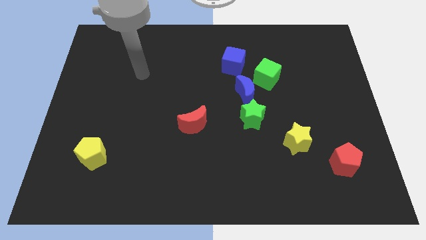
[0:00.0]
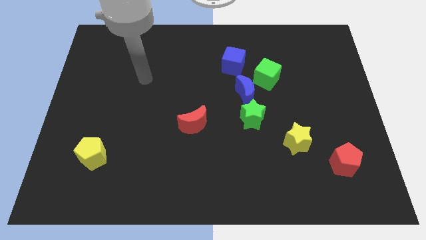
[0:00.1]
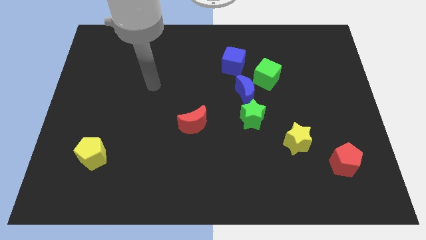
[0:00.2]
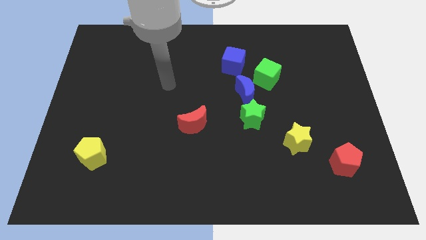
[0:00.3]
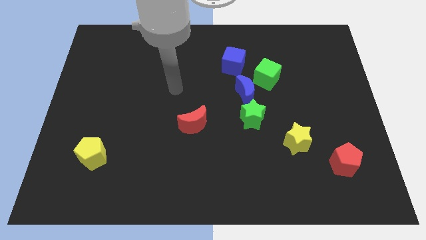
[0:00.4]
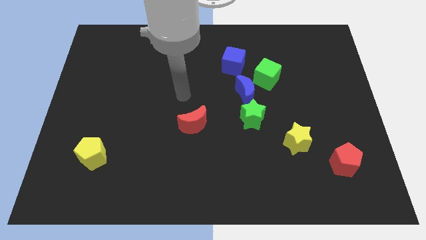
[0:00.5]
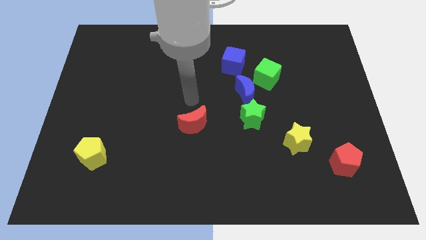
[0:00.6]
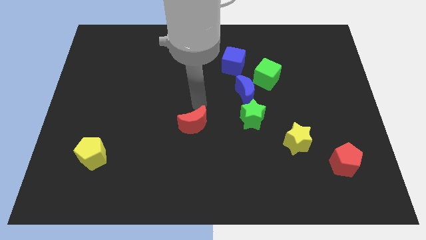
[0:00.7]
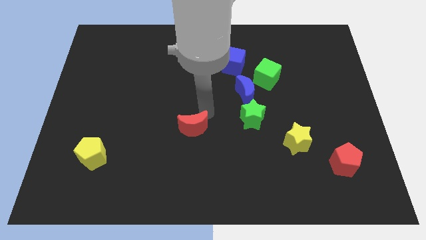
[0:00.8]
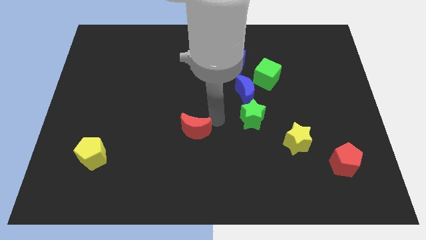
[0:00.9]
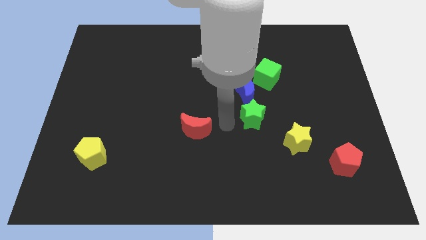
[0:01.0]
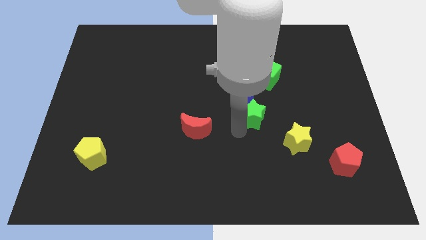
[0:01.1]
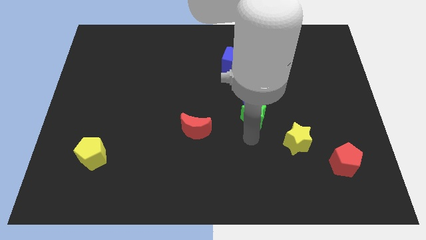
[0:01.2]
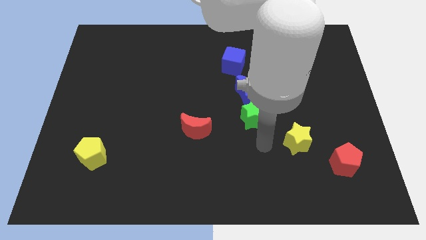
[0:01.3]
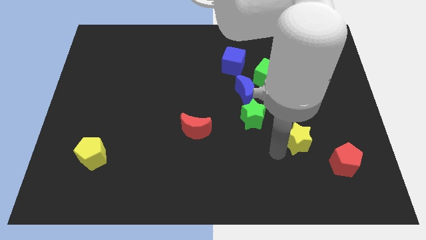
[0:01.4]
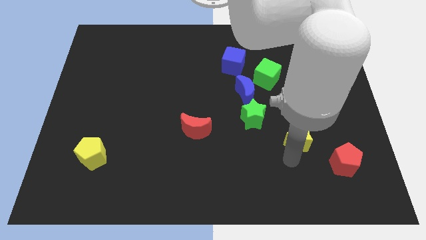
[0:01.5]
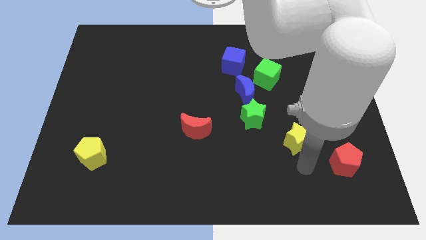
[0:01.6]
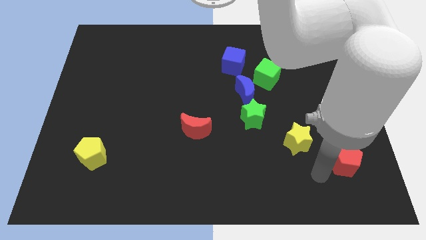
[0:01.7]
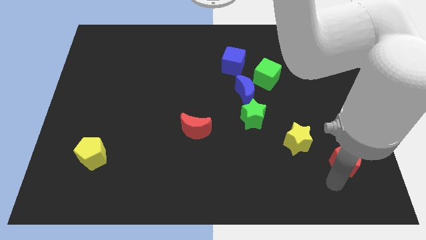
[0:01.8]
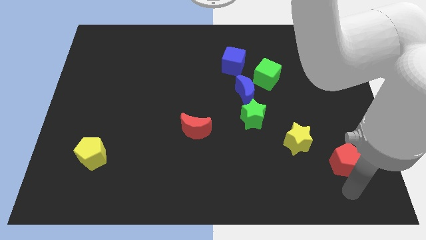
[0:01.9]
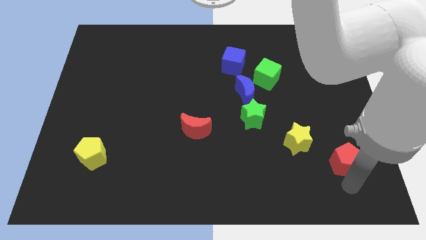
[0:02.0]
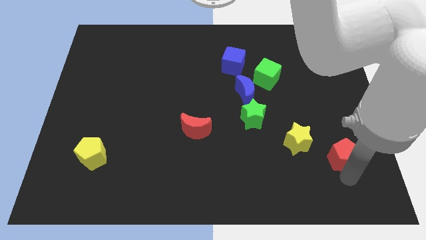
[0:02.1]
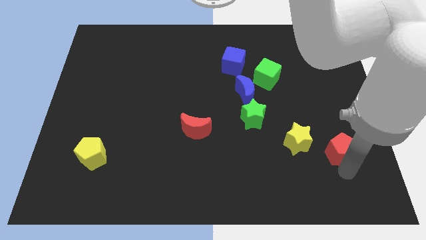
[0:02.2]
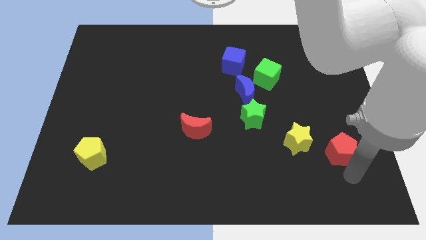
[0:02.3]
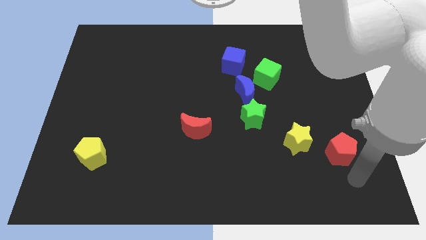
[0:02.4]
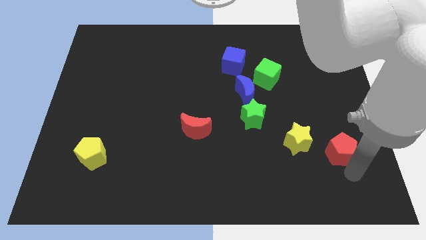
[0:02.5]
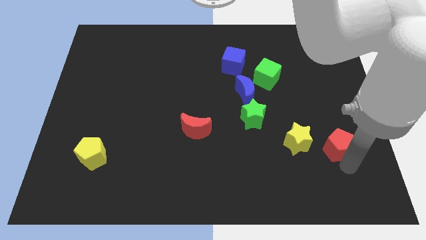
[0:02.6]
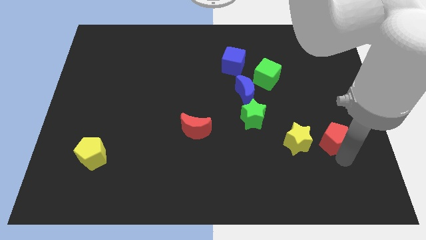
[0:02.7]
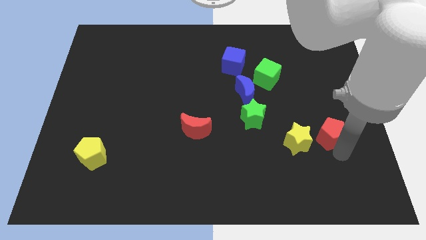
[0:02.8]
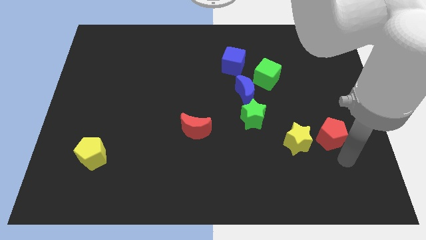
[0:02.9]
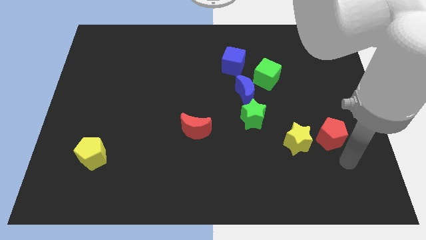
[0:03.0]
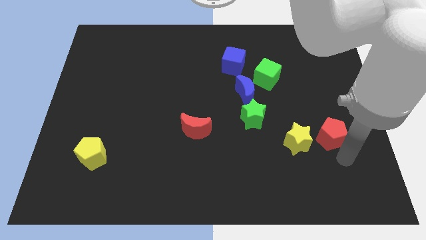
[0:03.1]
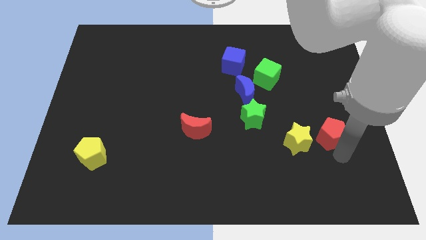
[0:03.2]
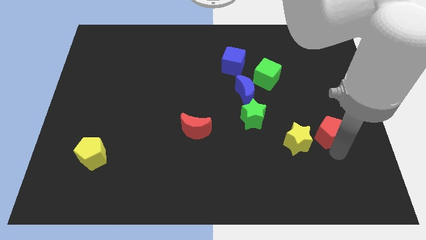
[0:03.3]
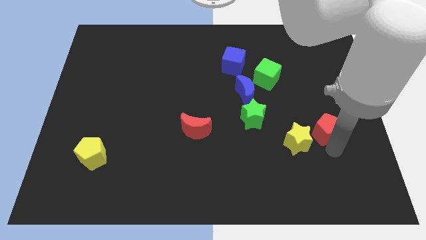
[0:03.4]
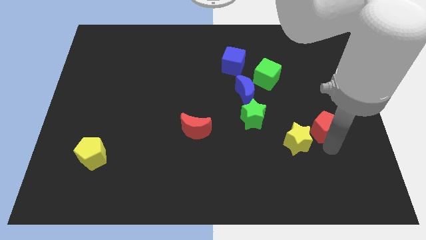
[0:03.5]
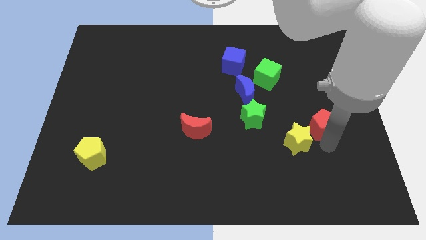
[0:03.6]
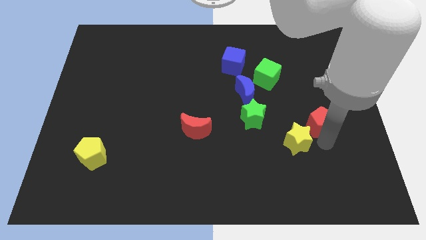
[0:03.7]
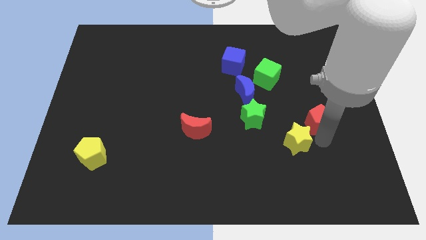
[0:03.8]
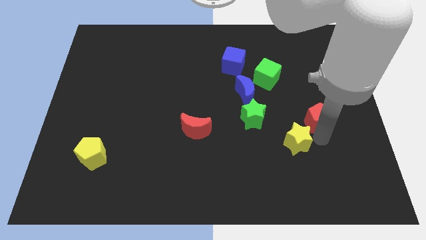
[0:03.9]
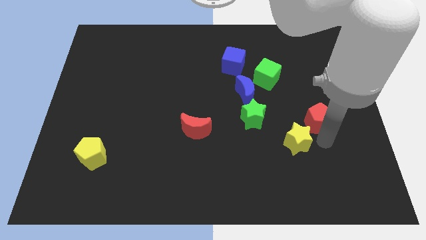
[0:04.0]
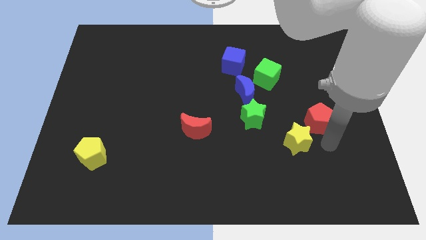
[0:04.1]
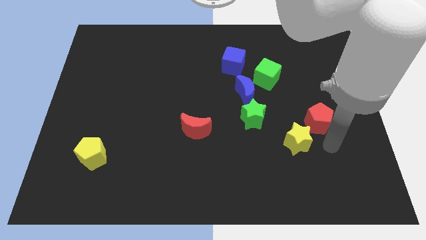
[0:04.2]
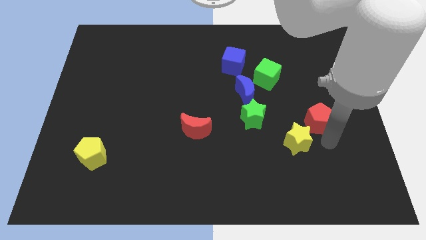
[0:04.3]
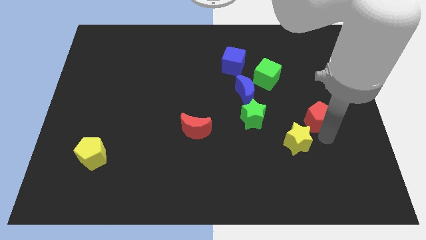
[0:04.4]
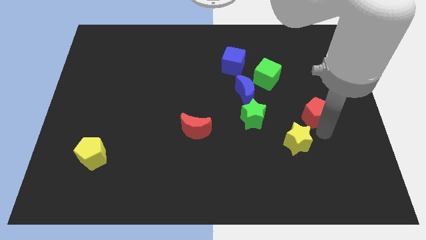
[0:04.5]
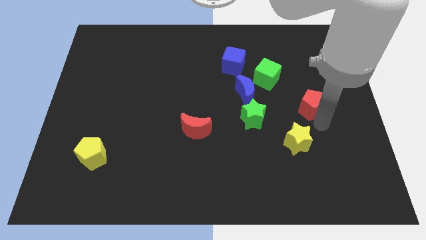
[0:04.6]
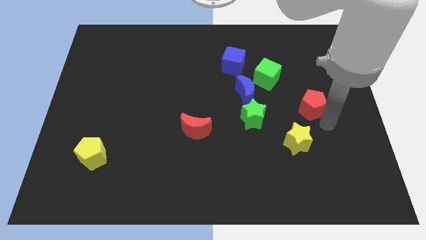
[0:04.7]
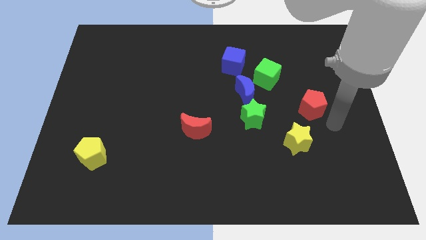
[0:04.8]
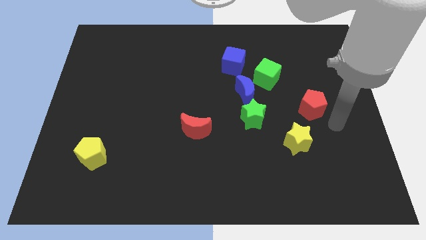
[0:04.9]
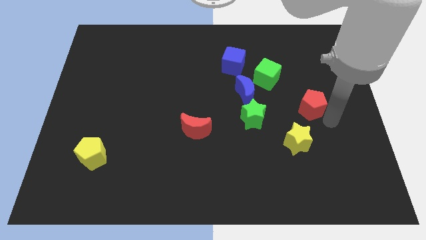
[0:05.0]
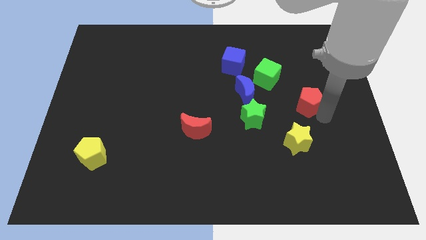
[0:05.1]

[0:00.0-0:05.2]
put the red pentagon right of the blue moon

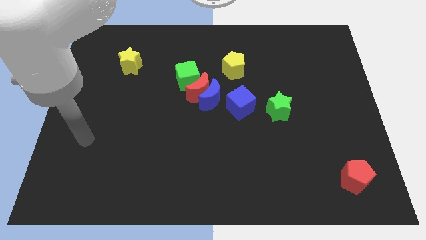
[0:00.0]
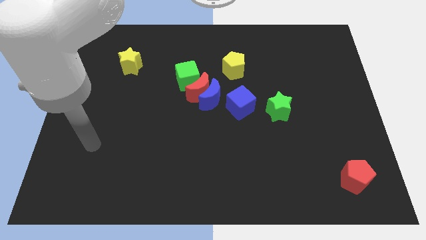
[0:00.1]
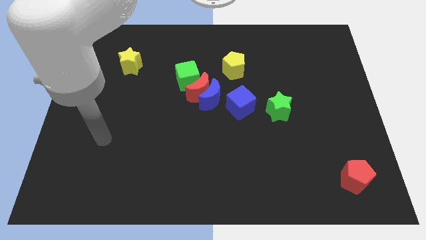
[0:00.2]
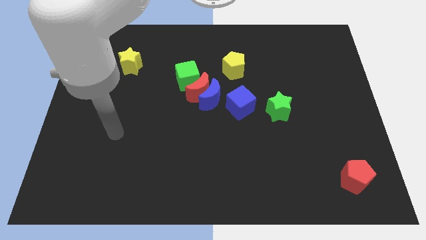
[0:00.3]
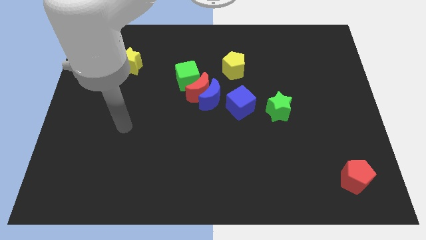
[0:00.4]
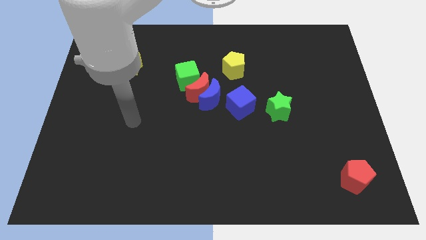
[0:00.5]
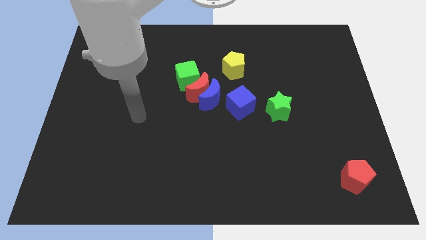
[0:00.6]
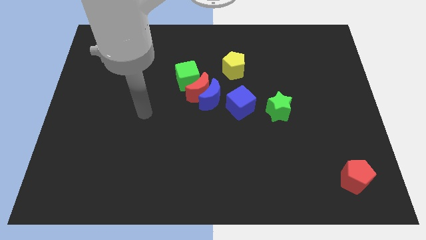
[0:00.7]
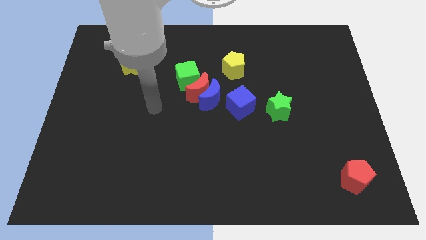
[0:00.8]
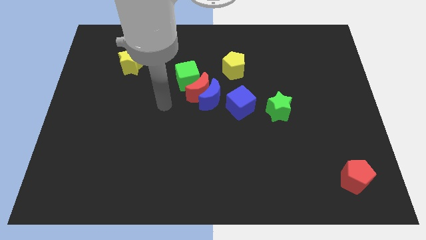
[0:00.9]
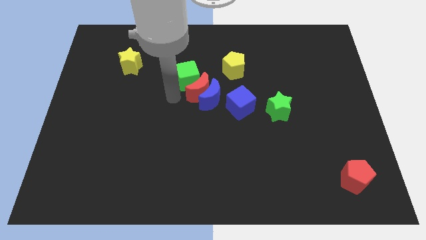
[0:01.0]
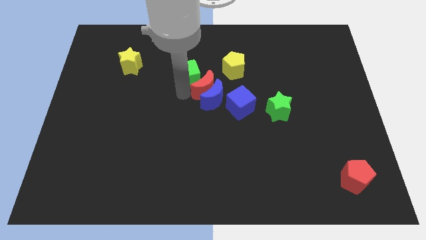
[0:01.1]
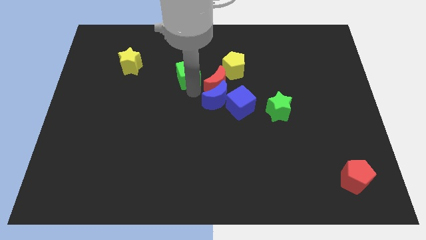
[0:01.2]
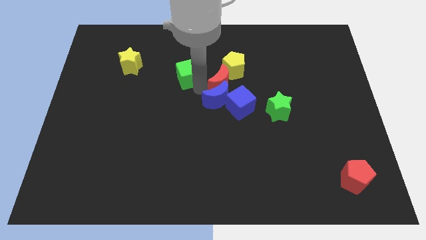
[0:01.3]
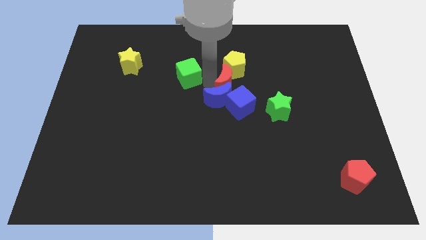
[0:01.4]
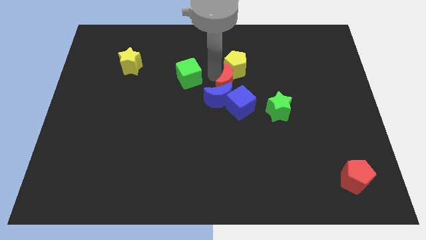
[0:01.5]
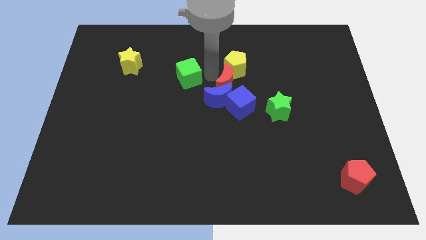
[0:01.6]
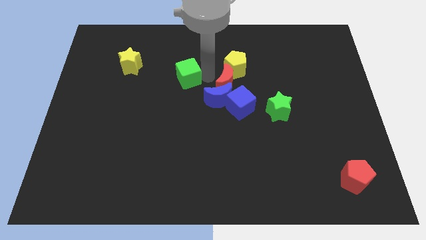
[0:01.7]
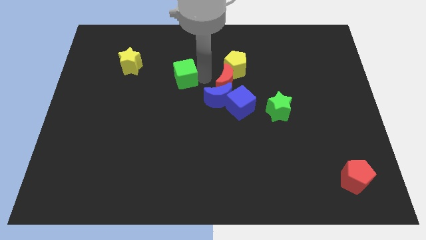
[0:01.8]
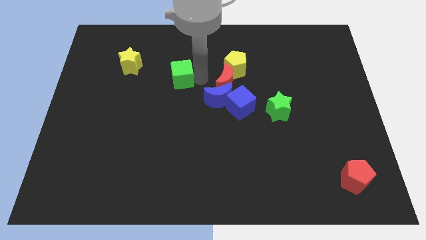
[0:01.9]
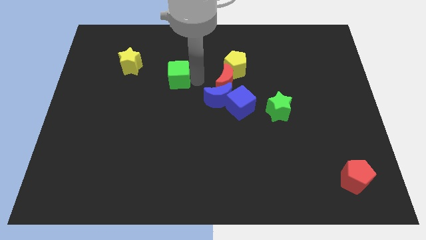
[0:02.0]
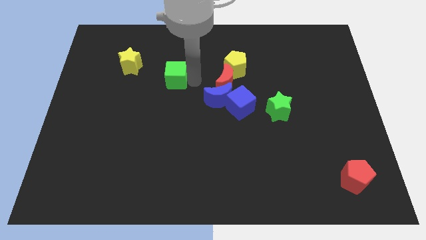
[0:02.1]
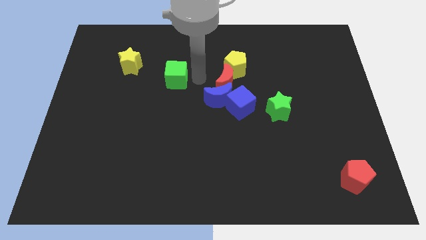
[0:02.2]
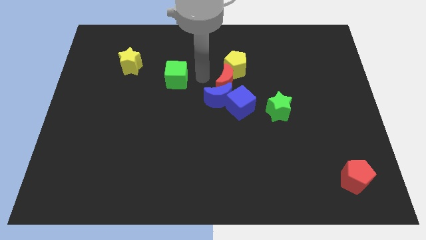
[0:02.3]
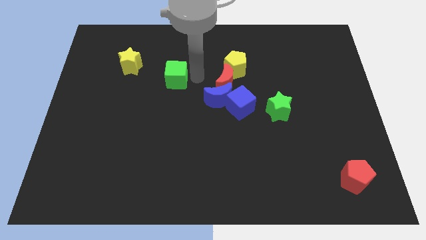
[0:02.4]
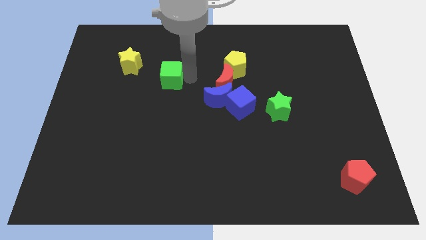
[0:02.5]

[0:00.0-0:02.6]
put the green cube to the bottom right side of the yellow star
